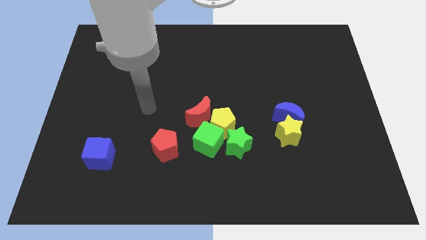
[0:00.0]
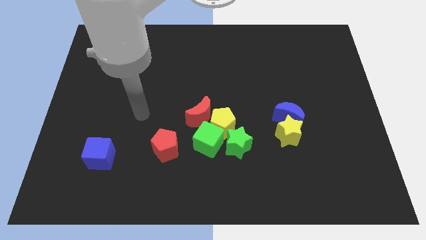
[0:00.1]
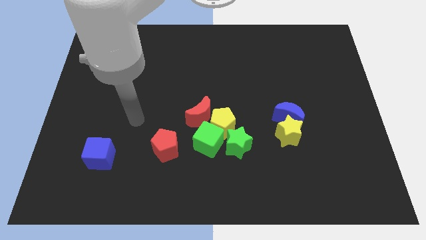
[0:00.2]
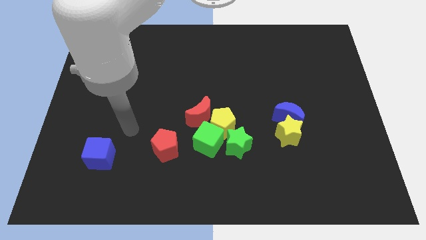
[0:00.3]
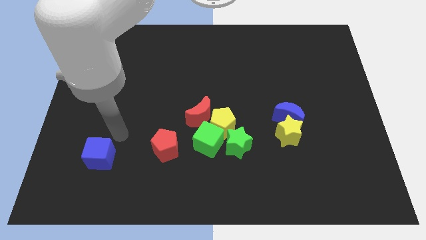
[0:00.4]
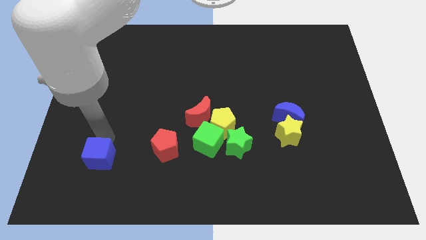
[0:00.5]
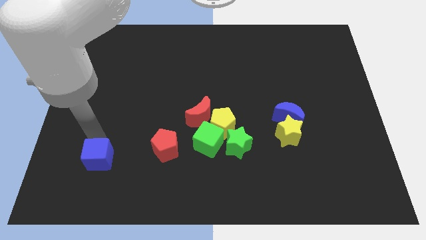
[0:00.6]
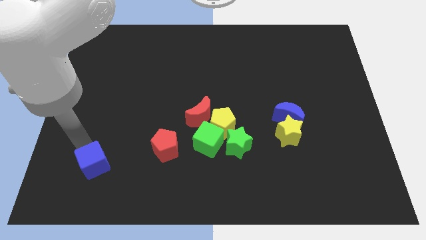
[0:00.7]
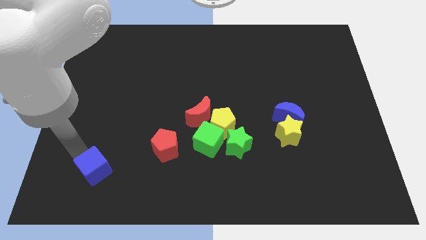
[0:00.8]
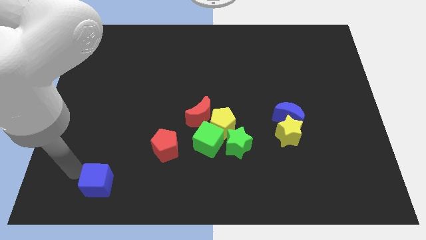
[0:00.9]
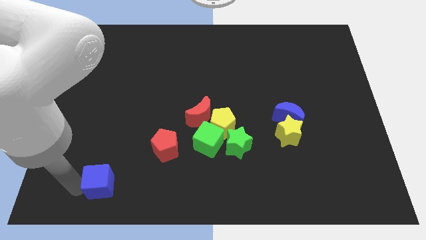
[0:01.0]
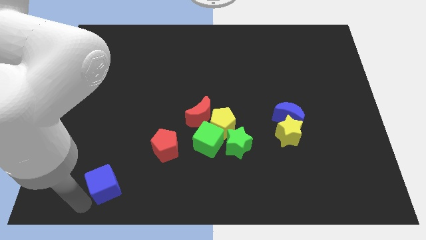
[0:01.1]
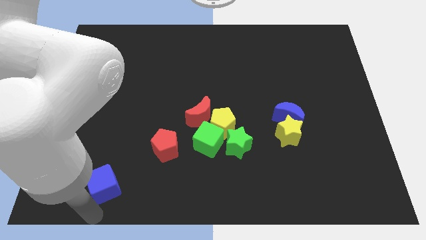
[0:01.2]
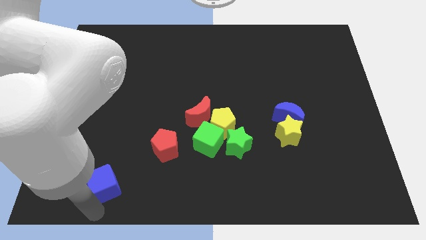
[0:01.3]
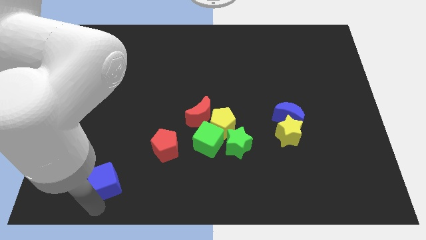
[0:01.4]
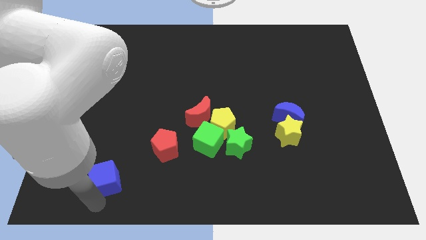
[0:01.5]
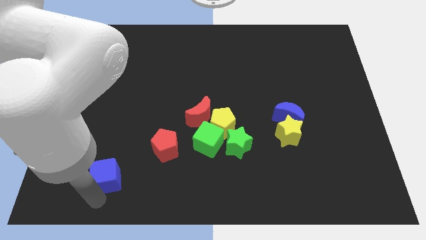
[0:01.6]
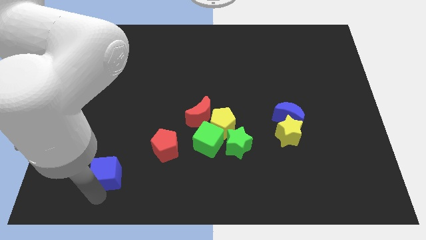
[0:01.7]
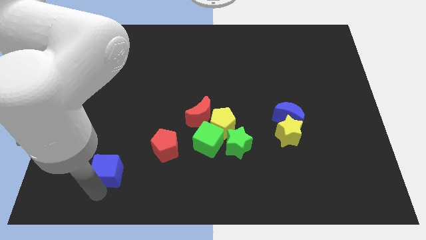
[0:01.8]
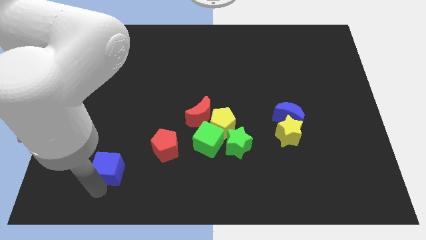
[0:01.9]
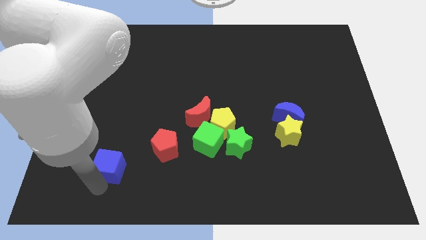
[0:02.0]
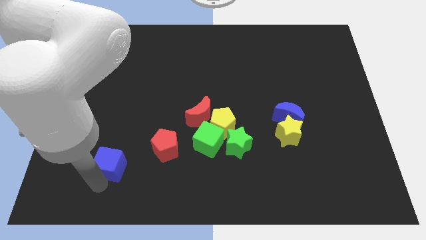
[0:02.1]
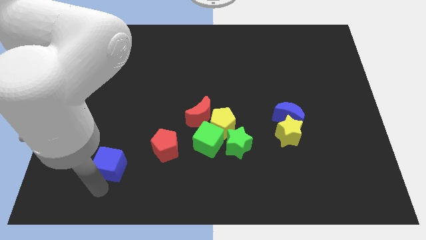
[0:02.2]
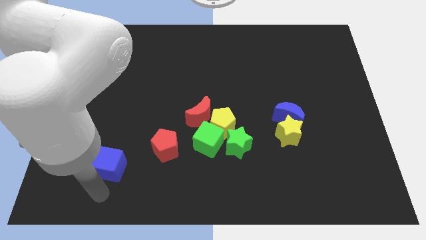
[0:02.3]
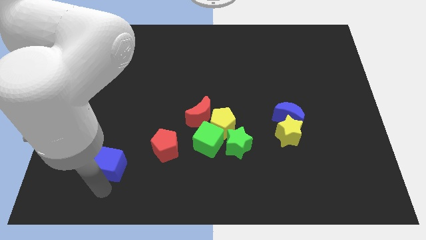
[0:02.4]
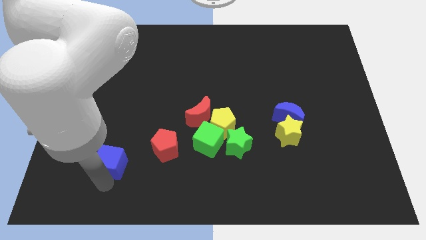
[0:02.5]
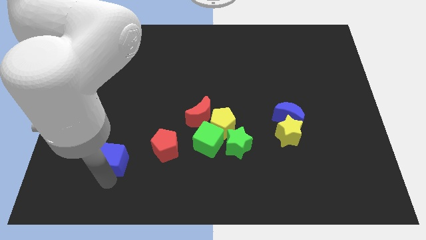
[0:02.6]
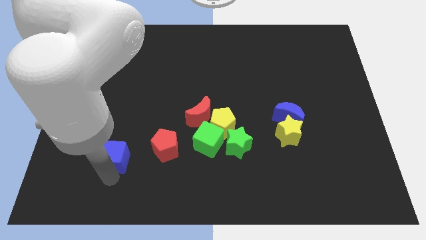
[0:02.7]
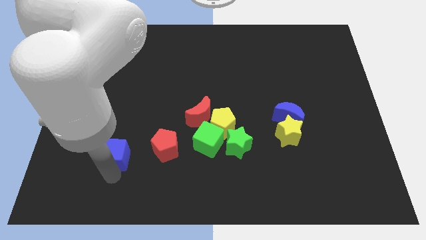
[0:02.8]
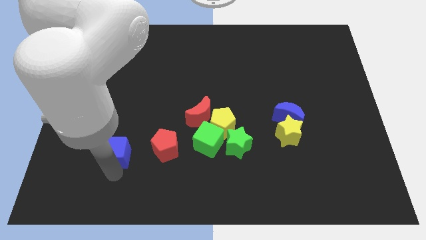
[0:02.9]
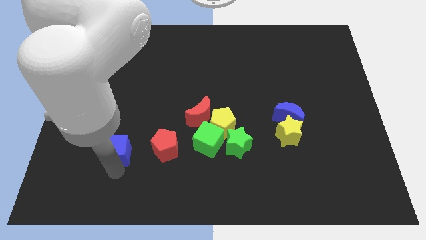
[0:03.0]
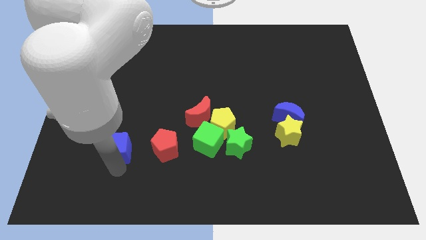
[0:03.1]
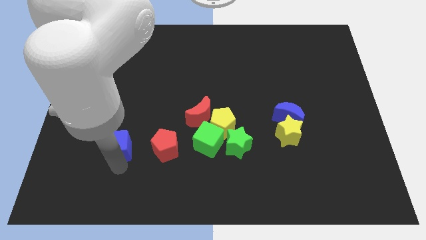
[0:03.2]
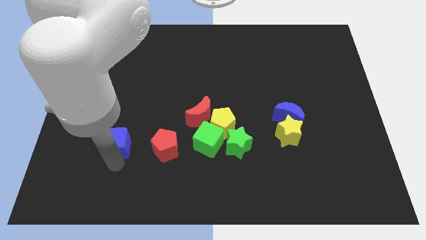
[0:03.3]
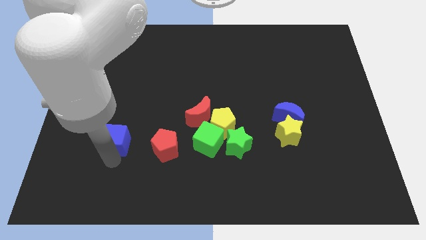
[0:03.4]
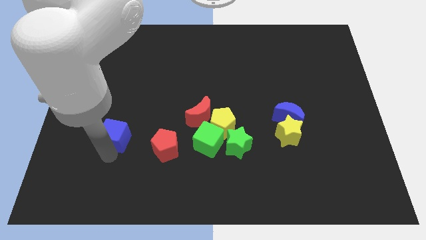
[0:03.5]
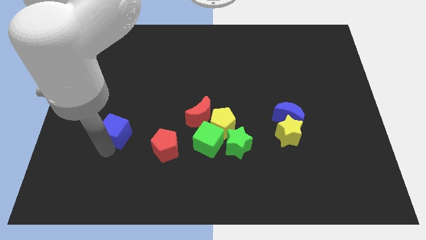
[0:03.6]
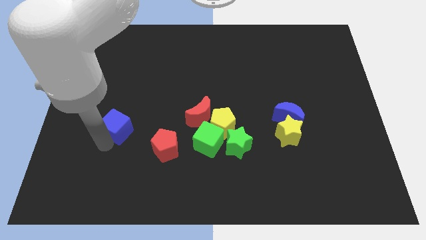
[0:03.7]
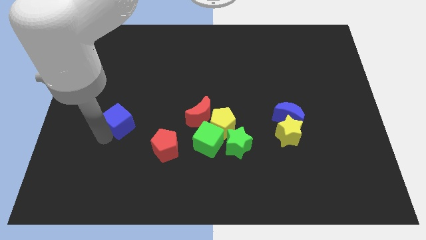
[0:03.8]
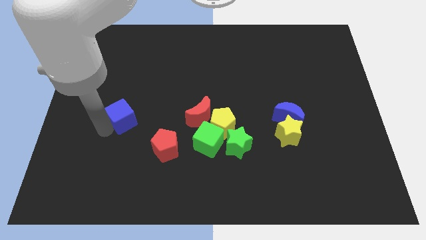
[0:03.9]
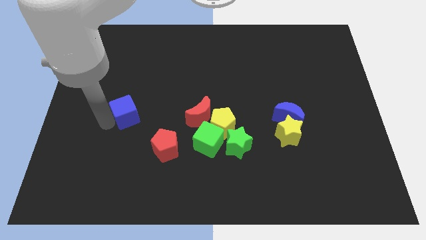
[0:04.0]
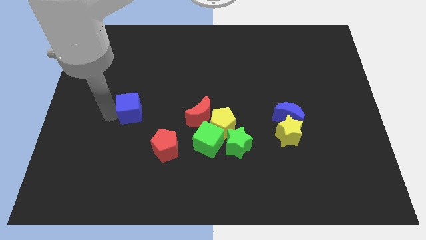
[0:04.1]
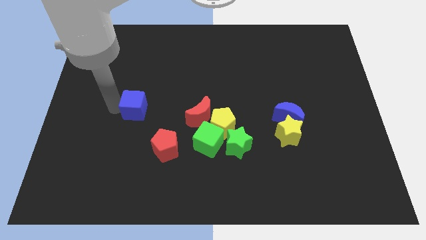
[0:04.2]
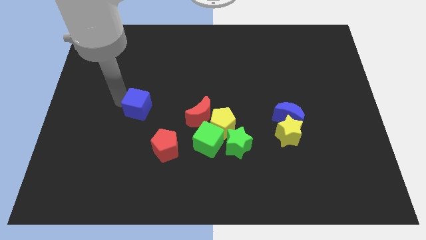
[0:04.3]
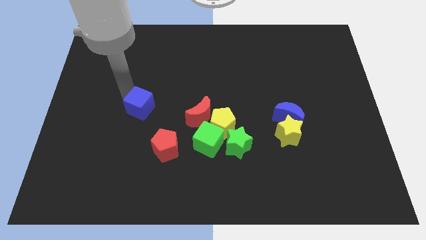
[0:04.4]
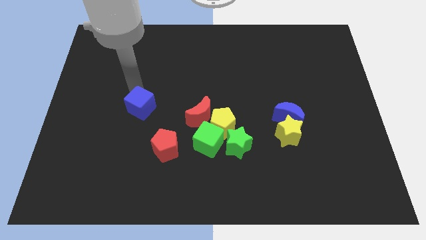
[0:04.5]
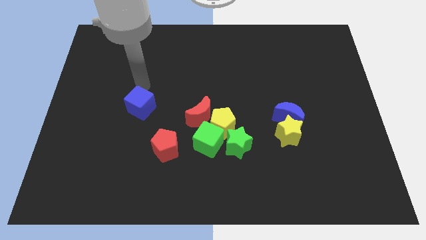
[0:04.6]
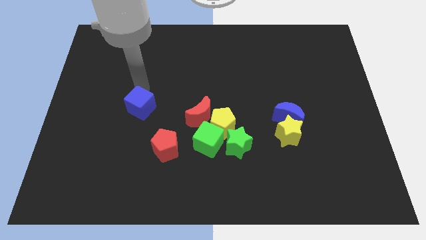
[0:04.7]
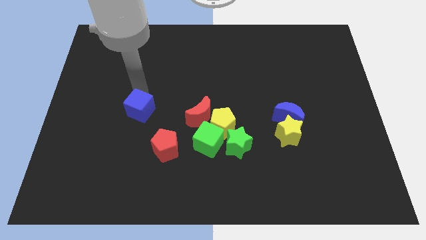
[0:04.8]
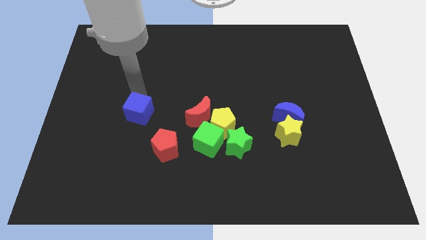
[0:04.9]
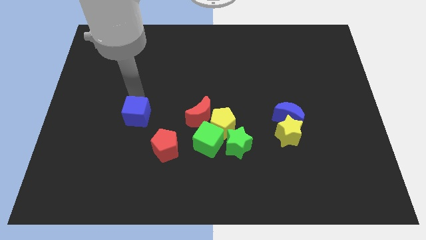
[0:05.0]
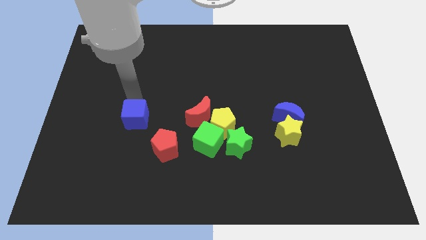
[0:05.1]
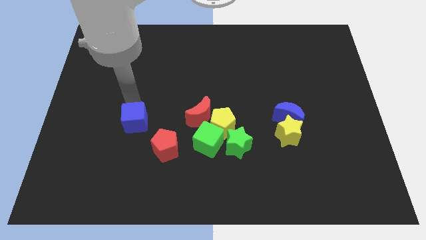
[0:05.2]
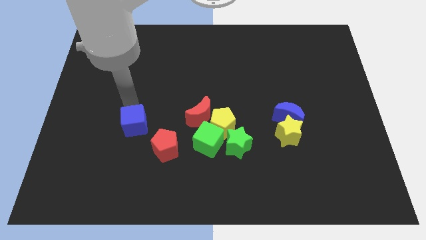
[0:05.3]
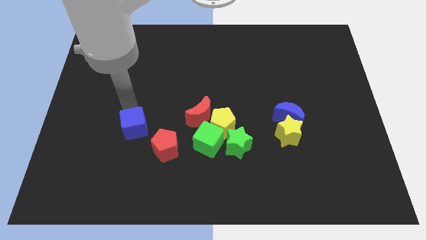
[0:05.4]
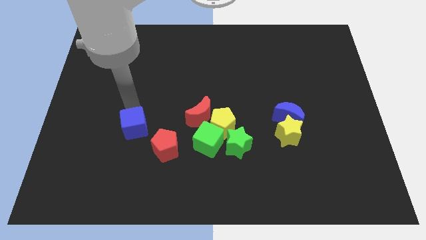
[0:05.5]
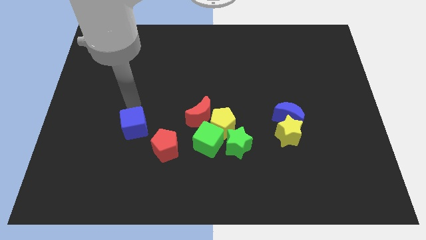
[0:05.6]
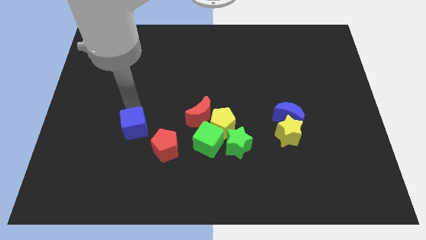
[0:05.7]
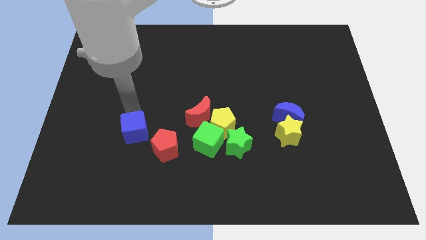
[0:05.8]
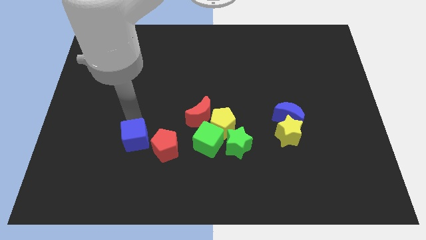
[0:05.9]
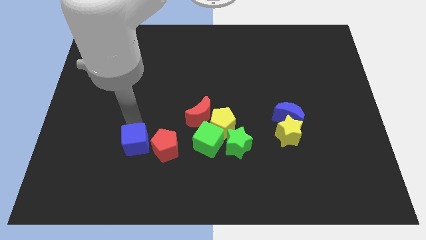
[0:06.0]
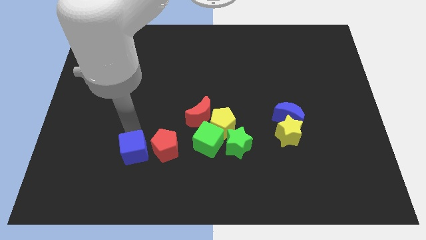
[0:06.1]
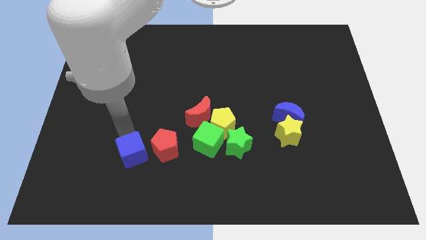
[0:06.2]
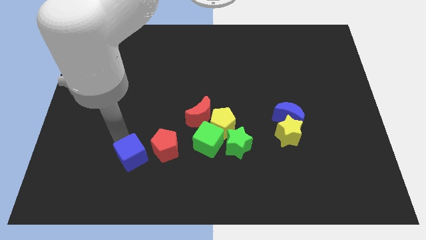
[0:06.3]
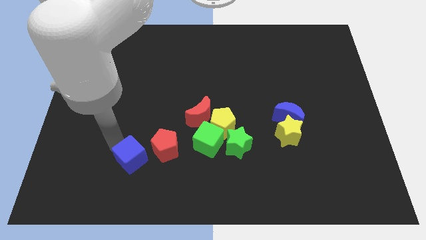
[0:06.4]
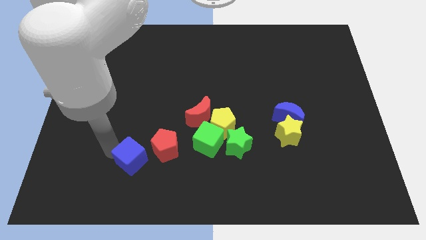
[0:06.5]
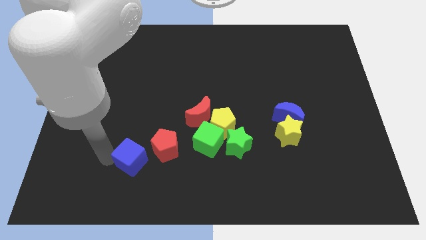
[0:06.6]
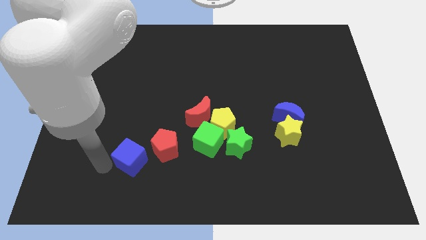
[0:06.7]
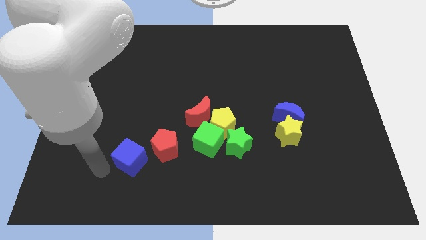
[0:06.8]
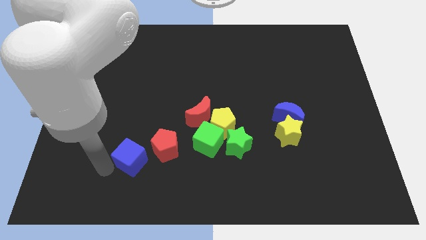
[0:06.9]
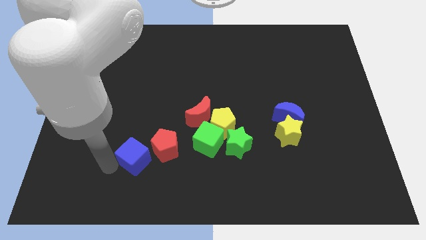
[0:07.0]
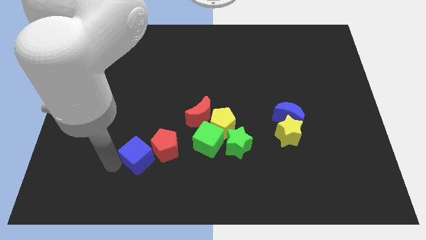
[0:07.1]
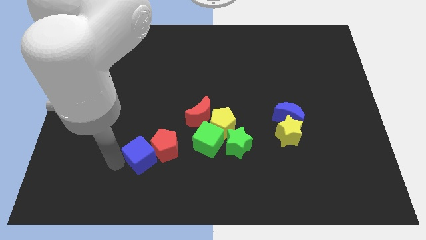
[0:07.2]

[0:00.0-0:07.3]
put the blue cube close to the red pentagon

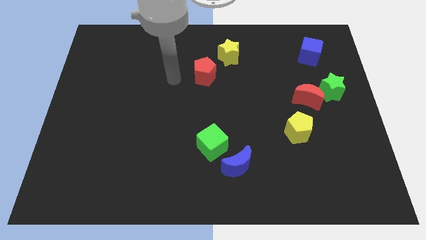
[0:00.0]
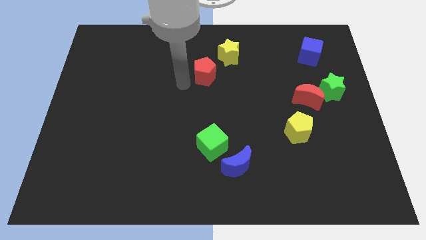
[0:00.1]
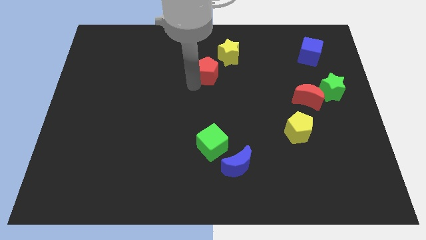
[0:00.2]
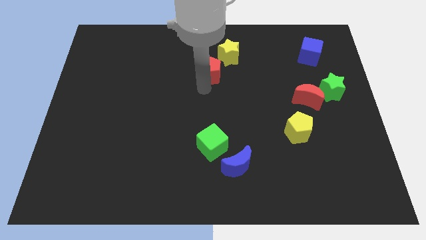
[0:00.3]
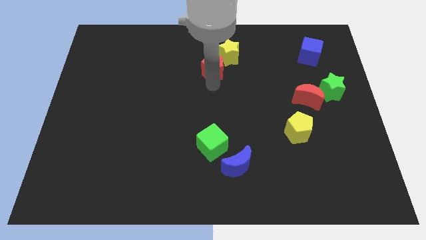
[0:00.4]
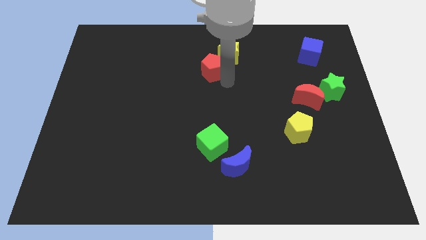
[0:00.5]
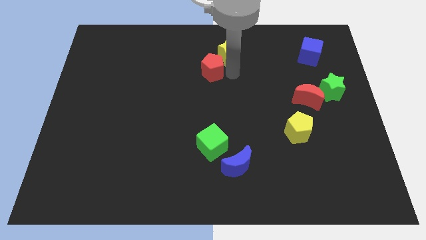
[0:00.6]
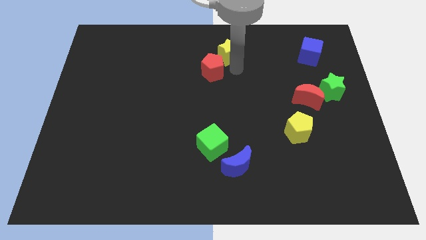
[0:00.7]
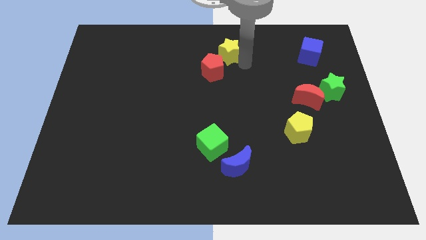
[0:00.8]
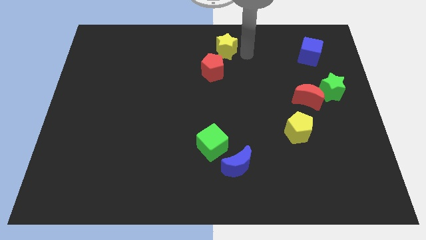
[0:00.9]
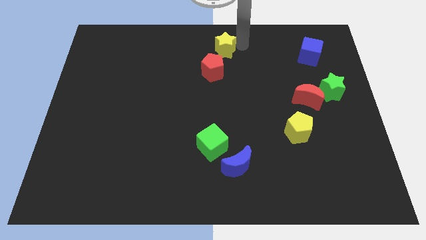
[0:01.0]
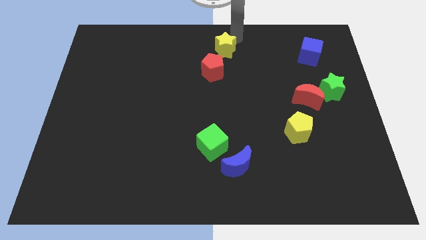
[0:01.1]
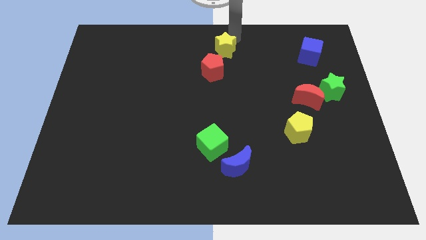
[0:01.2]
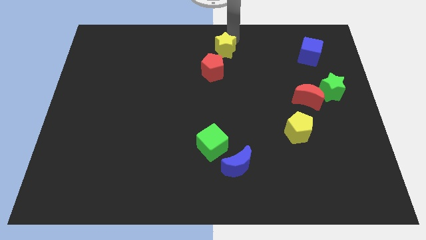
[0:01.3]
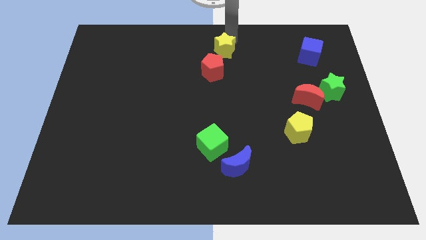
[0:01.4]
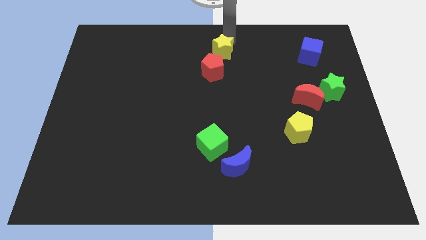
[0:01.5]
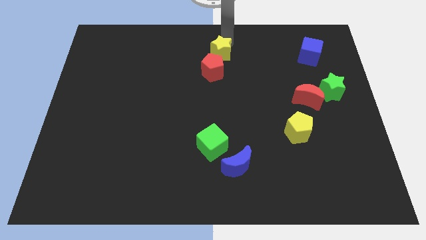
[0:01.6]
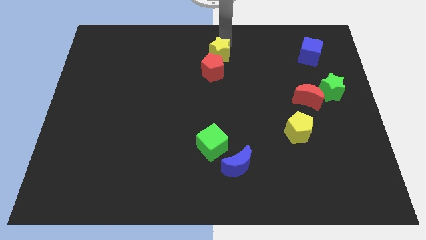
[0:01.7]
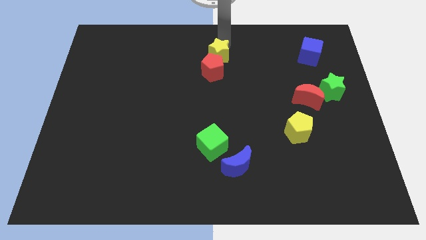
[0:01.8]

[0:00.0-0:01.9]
put the yellow star towards the red pentagon
